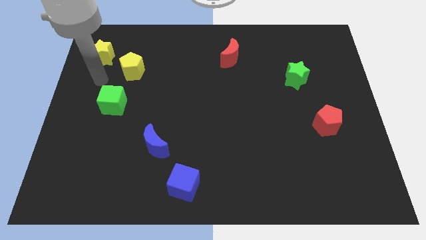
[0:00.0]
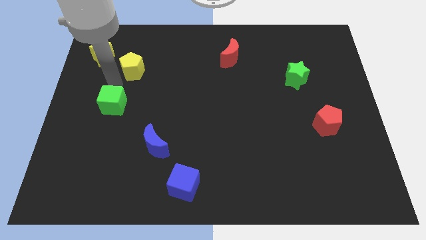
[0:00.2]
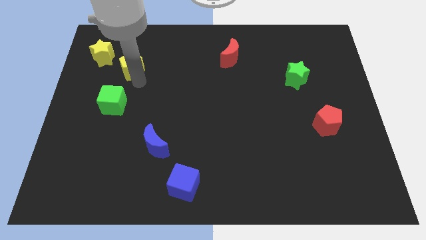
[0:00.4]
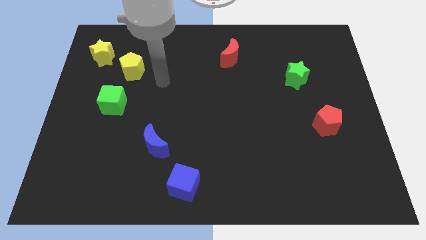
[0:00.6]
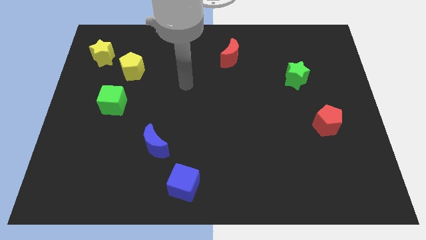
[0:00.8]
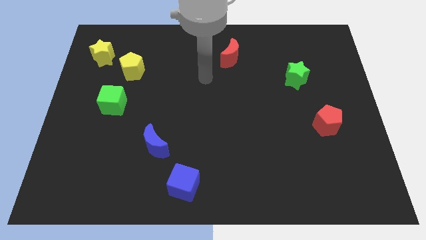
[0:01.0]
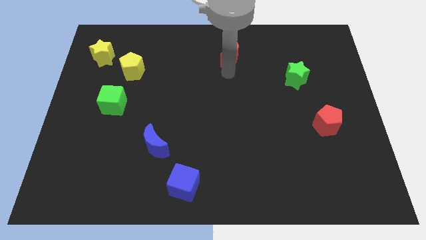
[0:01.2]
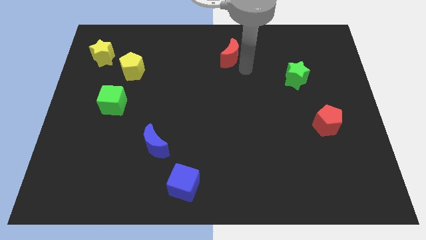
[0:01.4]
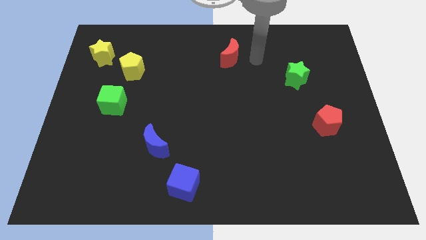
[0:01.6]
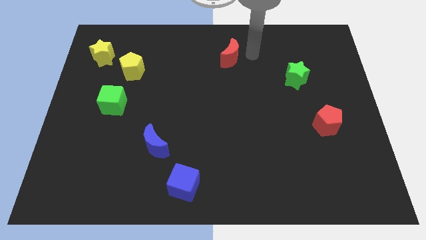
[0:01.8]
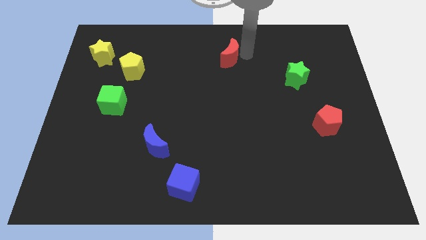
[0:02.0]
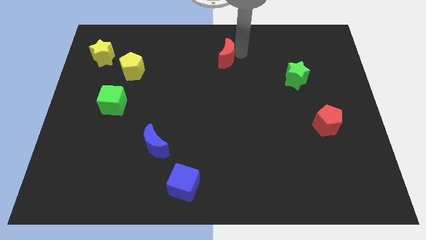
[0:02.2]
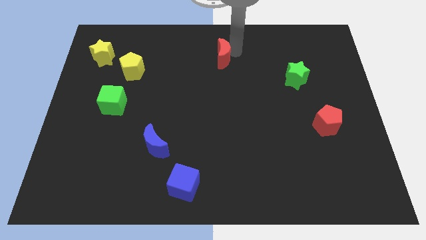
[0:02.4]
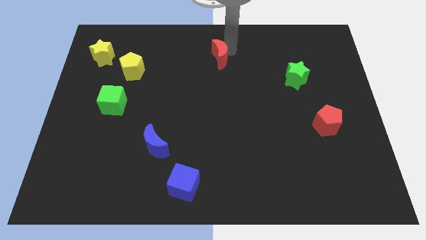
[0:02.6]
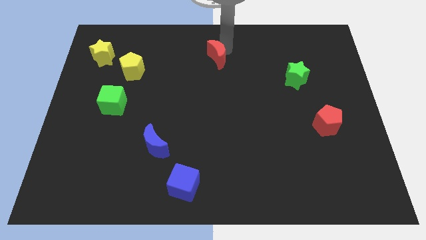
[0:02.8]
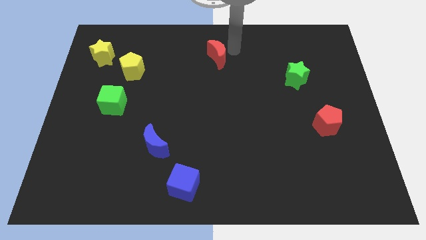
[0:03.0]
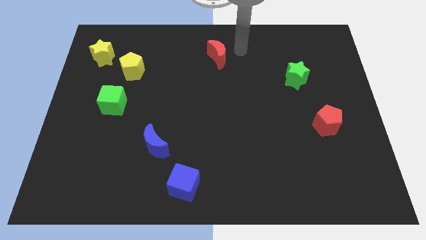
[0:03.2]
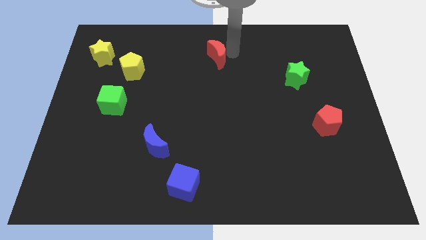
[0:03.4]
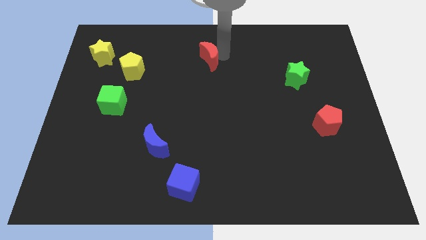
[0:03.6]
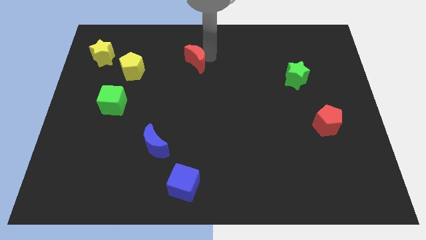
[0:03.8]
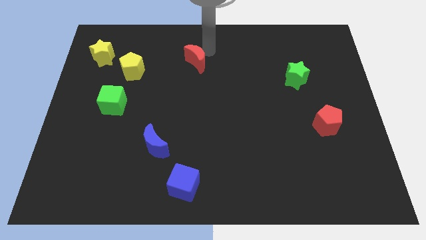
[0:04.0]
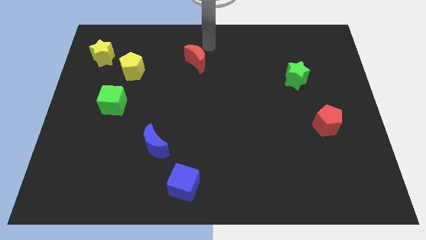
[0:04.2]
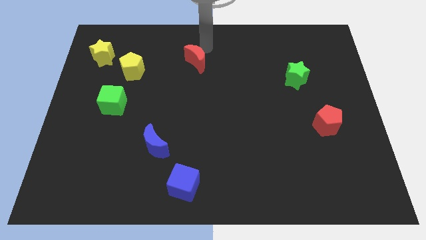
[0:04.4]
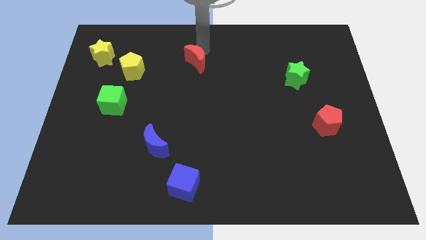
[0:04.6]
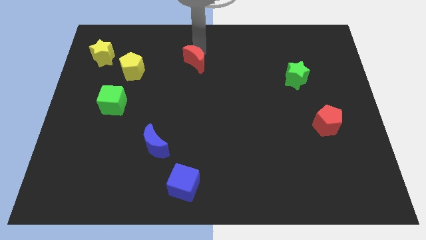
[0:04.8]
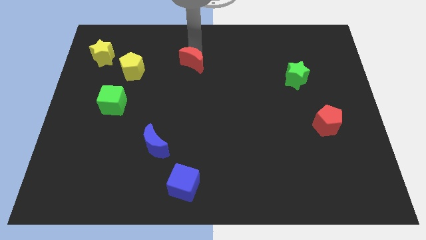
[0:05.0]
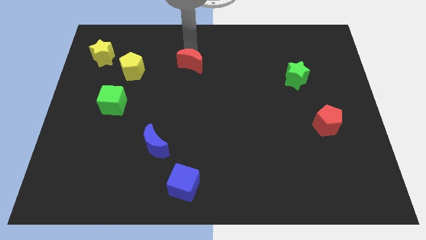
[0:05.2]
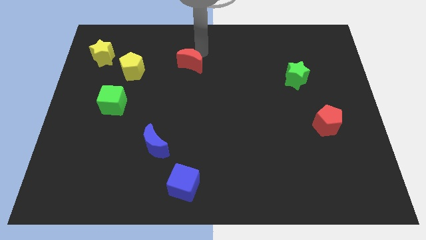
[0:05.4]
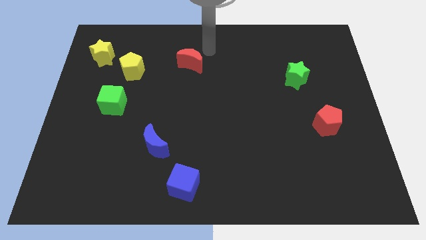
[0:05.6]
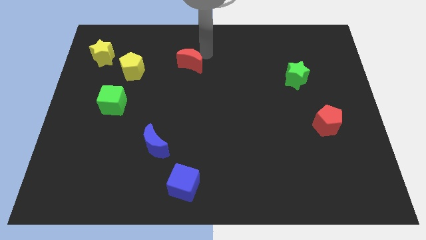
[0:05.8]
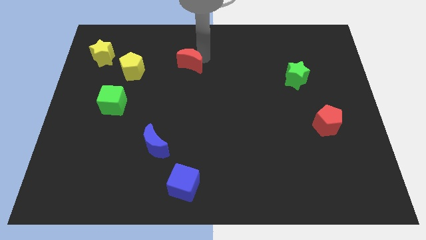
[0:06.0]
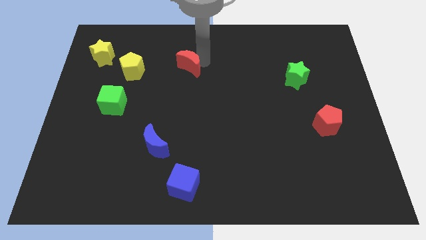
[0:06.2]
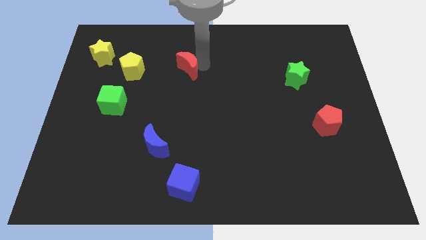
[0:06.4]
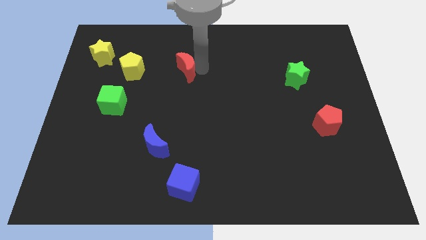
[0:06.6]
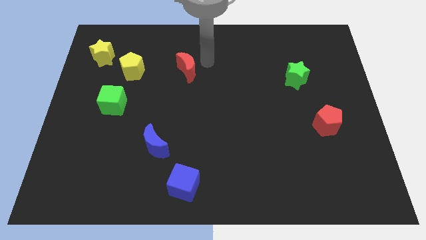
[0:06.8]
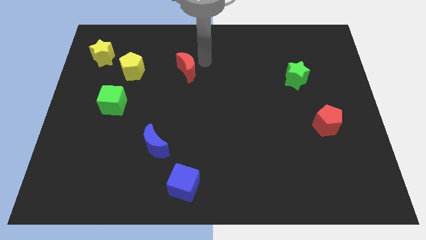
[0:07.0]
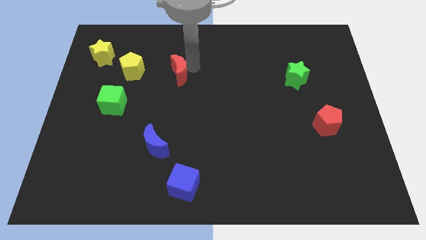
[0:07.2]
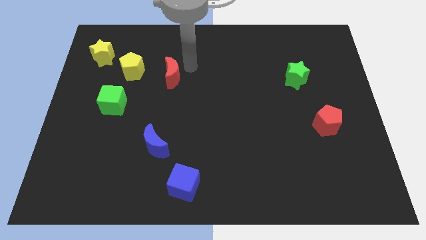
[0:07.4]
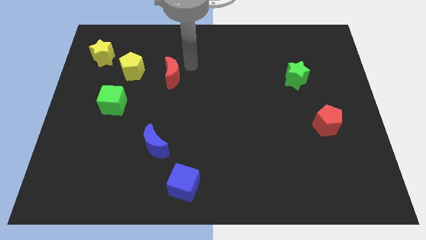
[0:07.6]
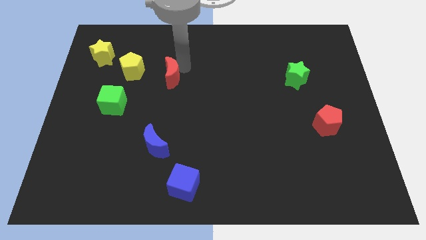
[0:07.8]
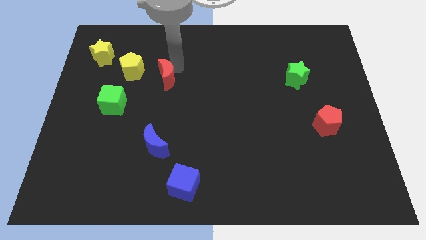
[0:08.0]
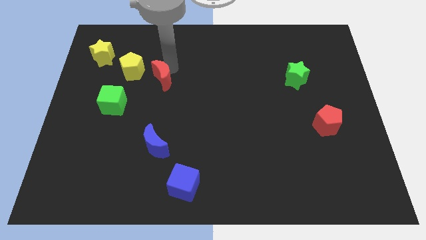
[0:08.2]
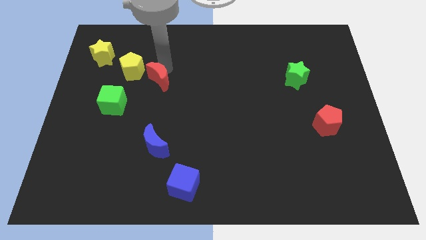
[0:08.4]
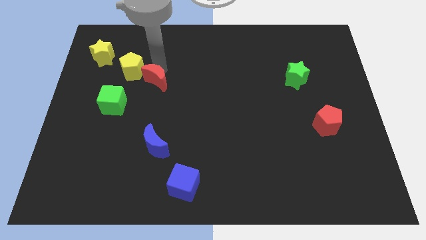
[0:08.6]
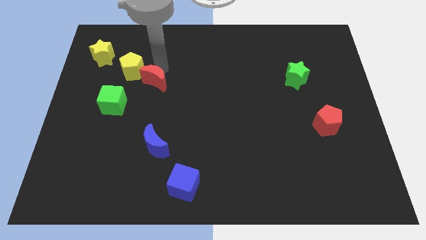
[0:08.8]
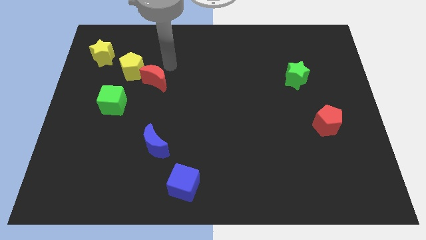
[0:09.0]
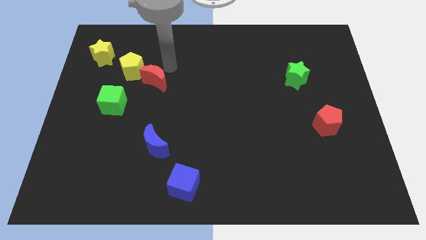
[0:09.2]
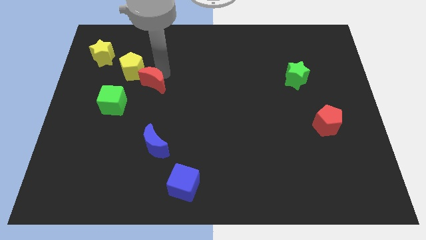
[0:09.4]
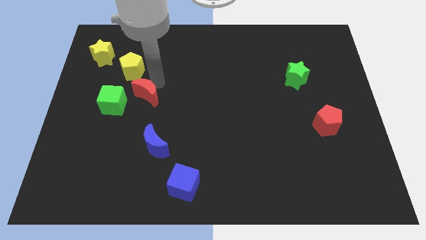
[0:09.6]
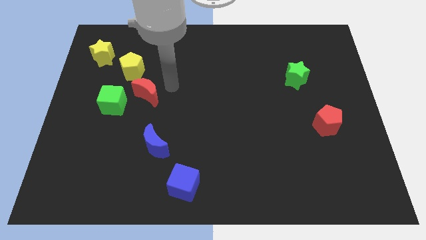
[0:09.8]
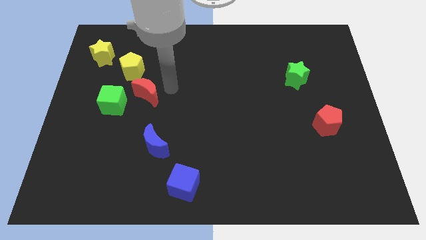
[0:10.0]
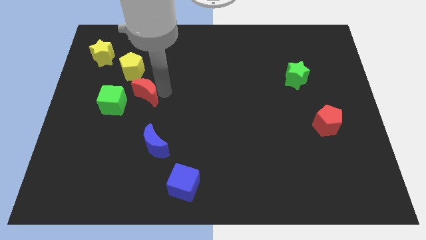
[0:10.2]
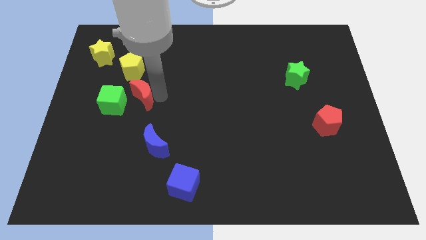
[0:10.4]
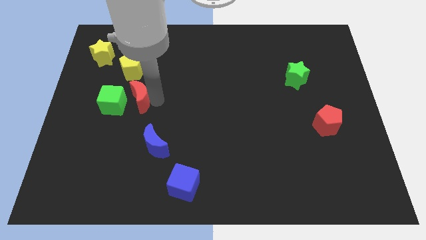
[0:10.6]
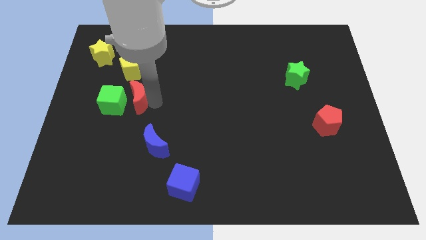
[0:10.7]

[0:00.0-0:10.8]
slide the red moon to the green cube

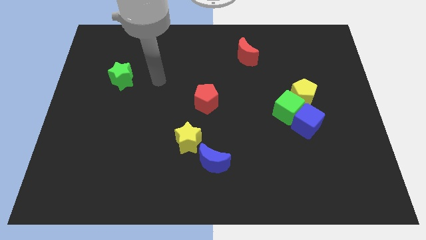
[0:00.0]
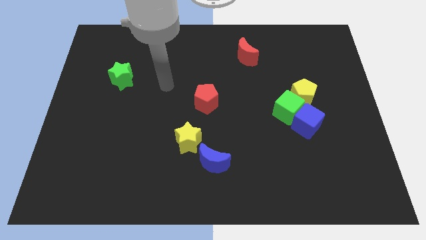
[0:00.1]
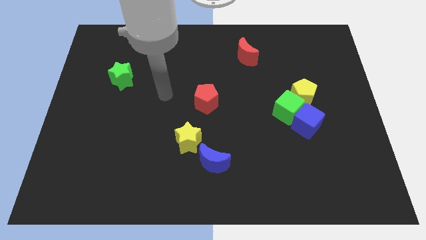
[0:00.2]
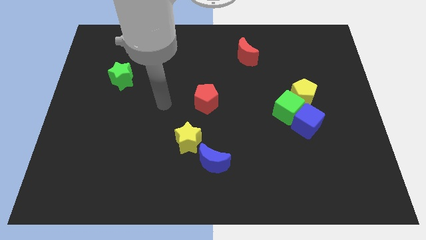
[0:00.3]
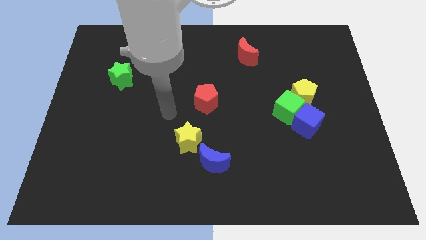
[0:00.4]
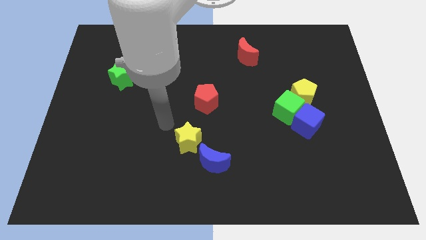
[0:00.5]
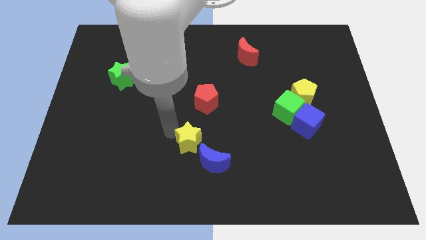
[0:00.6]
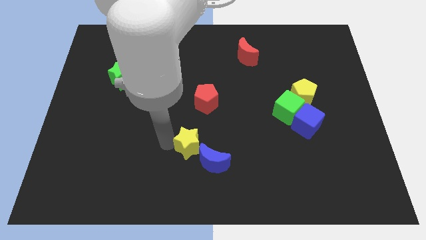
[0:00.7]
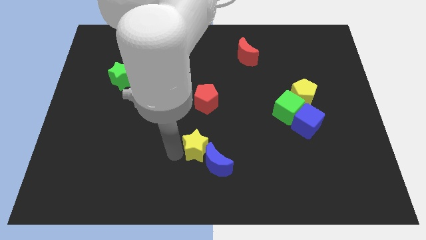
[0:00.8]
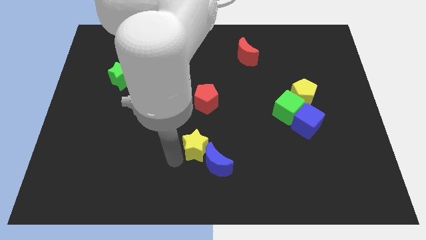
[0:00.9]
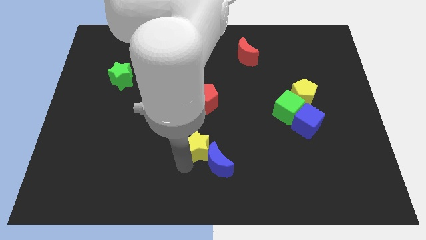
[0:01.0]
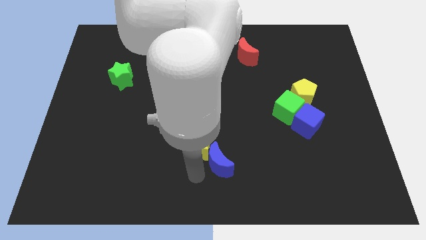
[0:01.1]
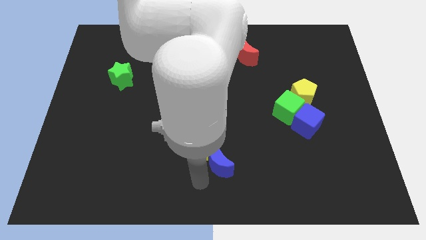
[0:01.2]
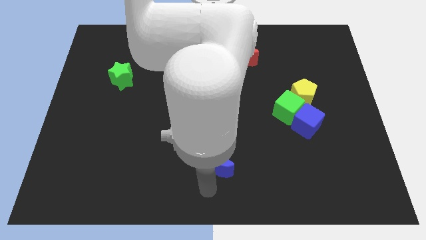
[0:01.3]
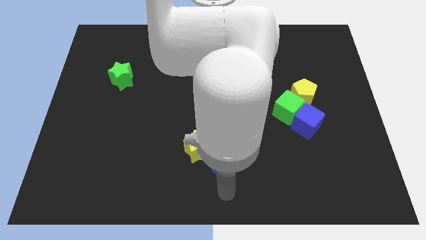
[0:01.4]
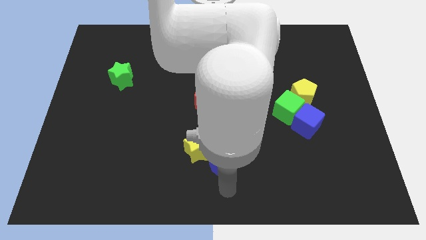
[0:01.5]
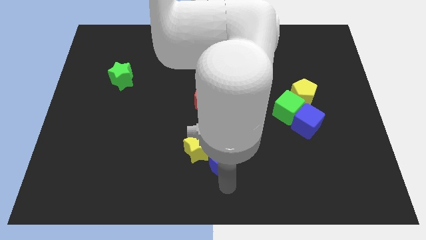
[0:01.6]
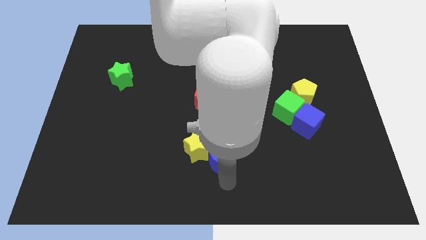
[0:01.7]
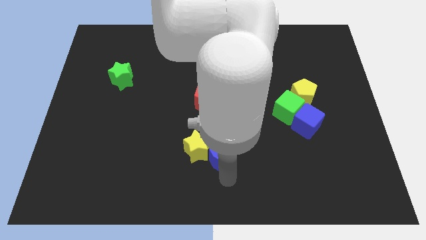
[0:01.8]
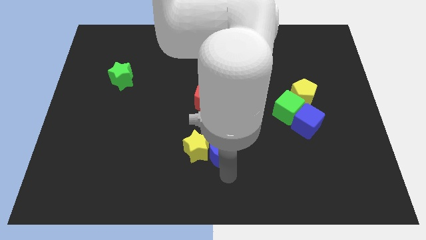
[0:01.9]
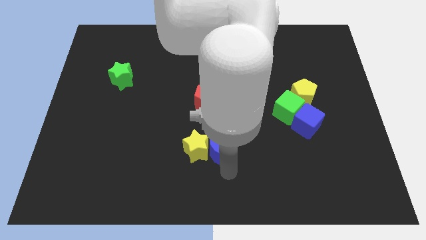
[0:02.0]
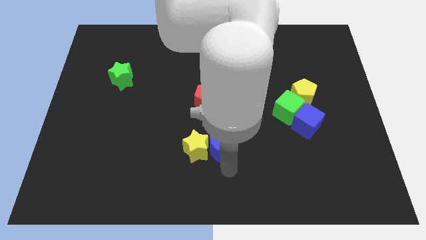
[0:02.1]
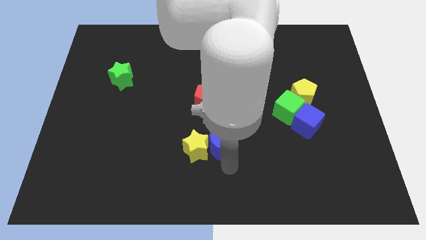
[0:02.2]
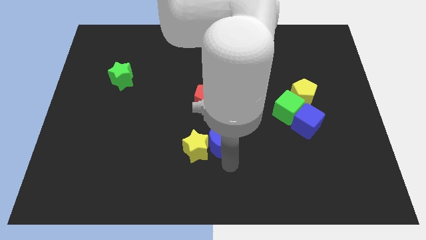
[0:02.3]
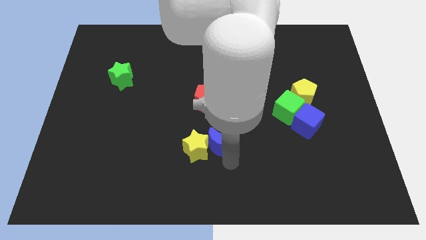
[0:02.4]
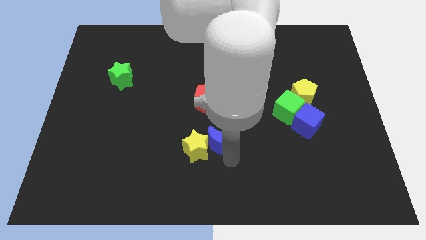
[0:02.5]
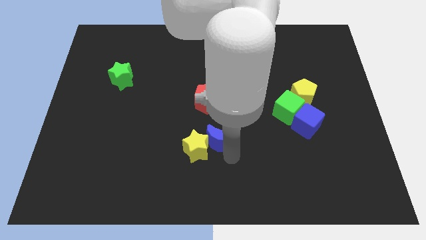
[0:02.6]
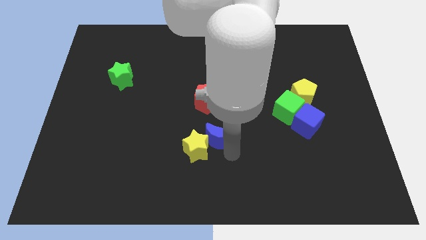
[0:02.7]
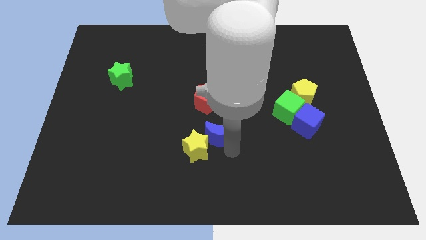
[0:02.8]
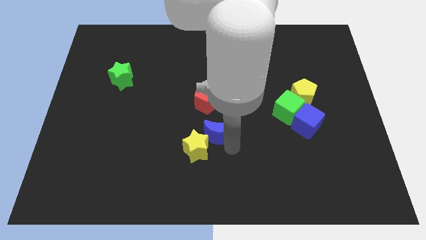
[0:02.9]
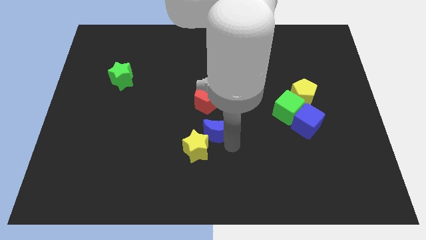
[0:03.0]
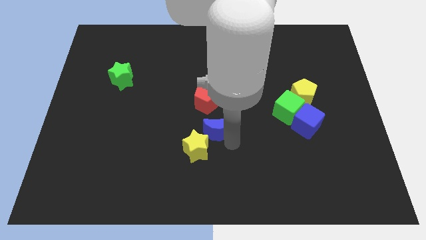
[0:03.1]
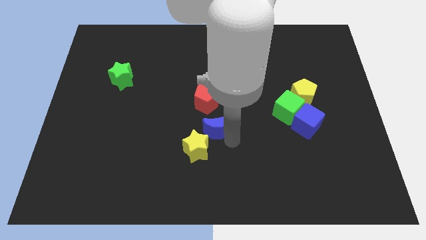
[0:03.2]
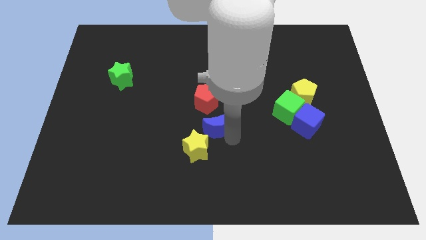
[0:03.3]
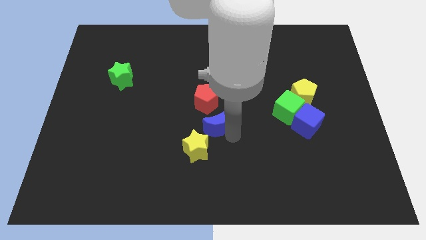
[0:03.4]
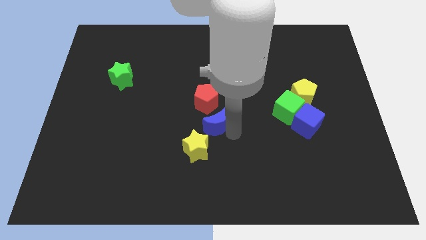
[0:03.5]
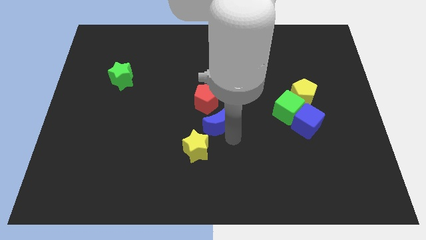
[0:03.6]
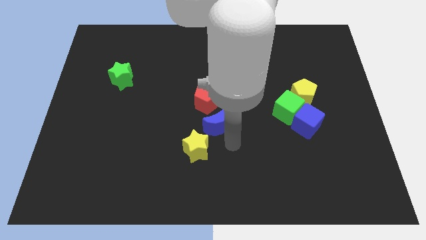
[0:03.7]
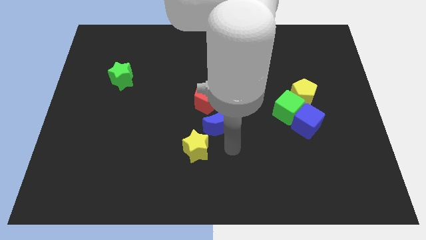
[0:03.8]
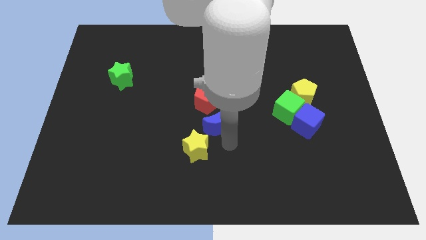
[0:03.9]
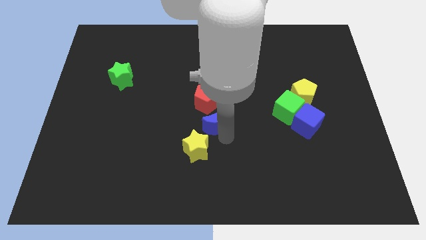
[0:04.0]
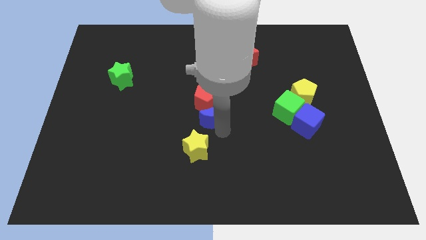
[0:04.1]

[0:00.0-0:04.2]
push the blue moon next to the red pentagon
